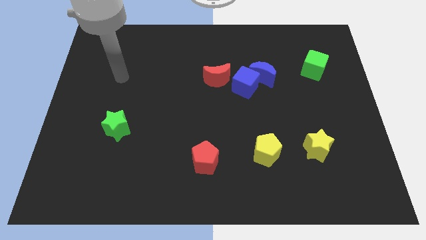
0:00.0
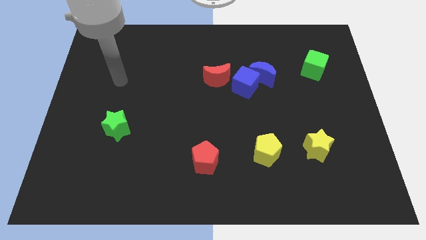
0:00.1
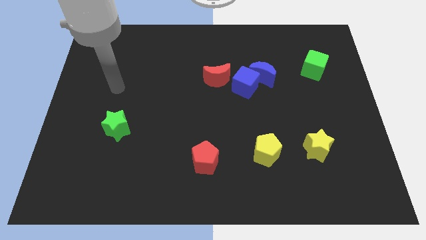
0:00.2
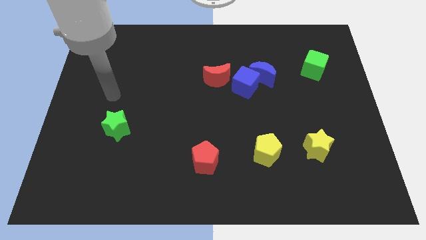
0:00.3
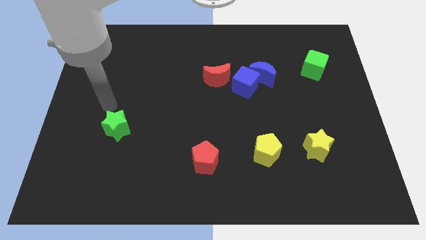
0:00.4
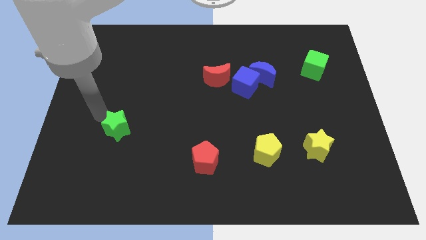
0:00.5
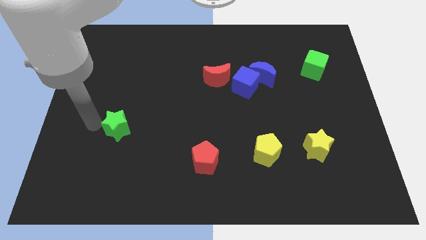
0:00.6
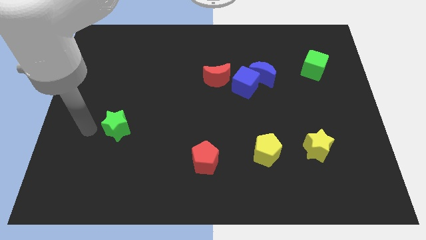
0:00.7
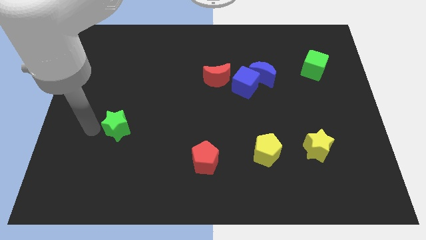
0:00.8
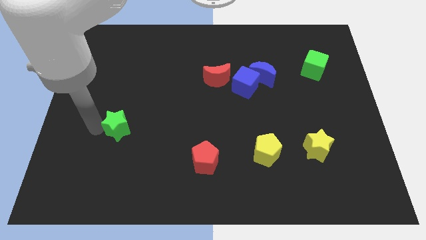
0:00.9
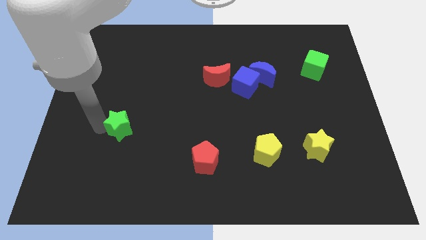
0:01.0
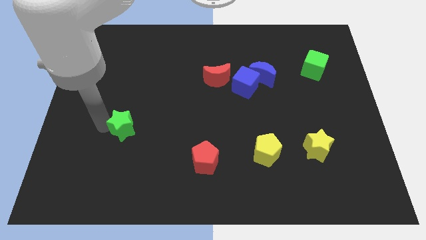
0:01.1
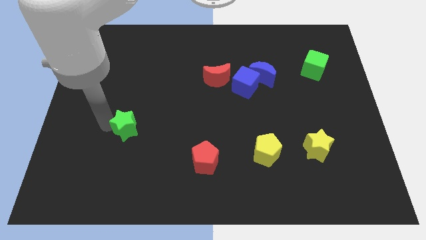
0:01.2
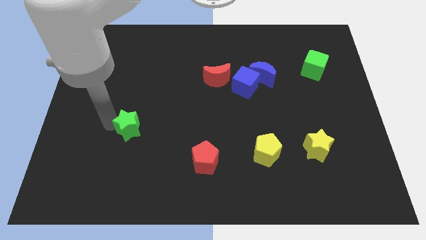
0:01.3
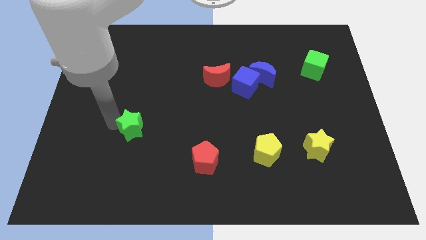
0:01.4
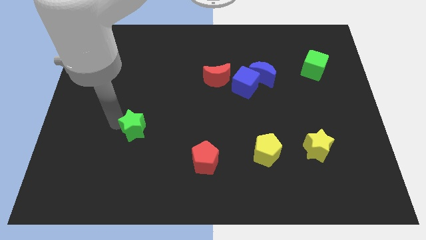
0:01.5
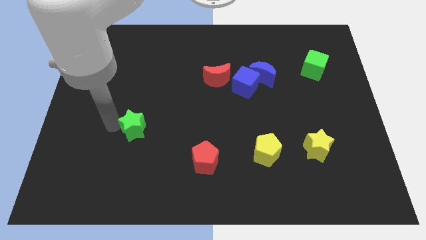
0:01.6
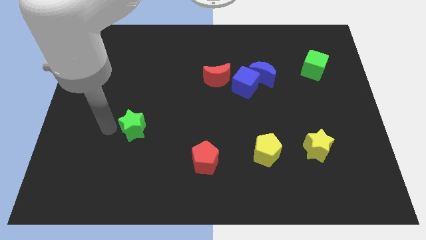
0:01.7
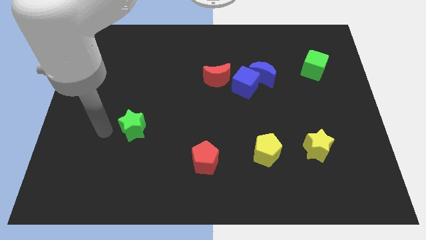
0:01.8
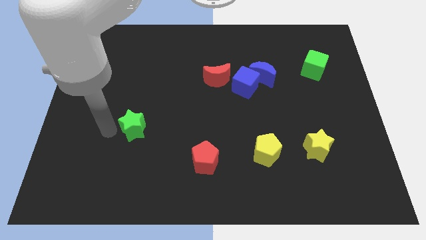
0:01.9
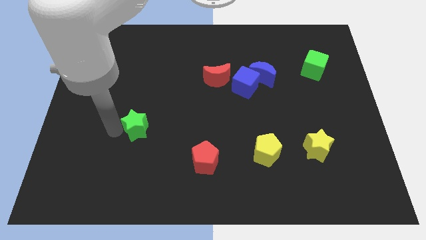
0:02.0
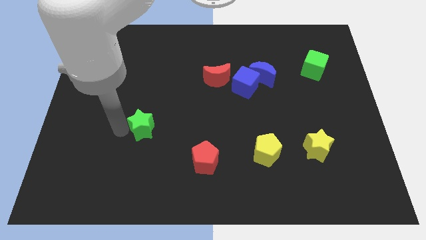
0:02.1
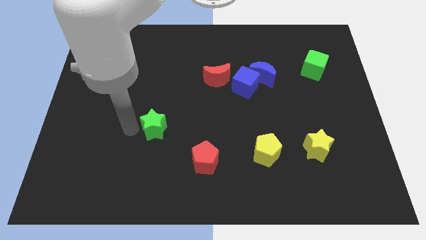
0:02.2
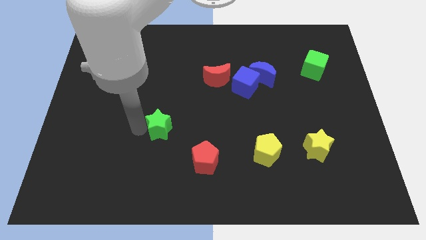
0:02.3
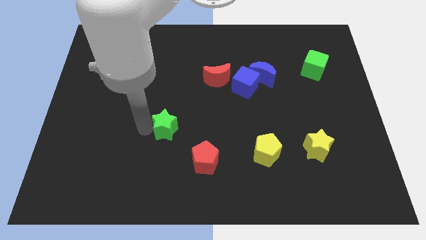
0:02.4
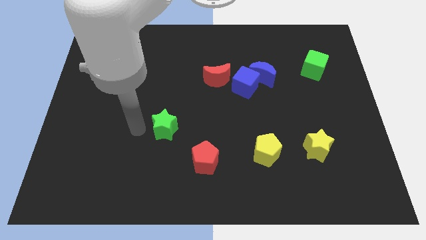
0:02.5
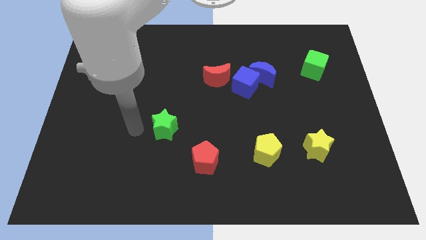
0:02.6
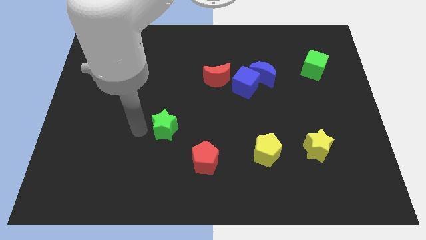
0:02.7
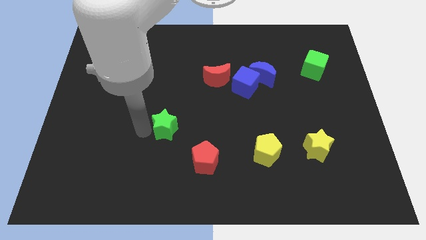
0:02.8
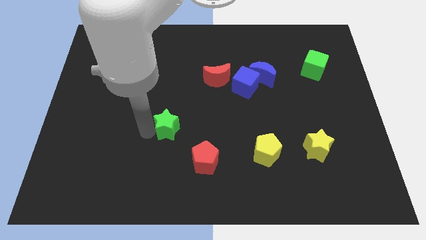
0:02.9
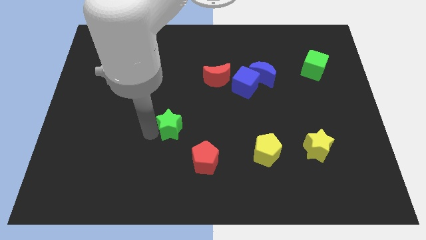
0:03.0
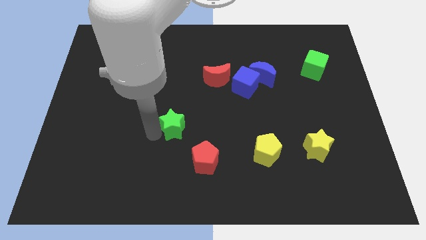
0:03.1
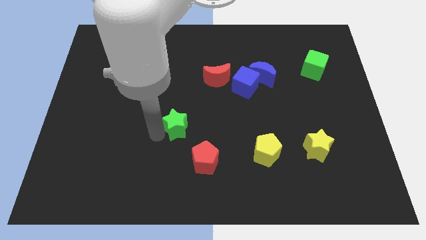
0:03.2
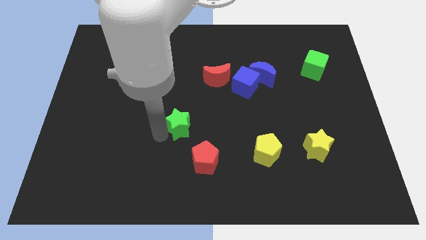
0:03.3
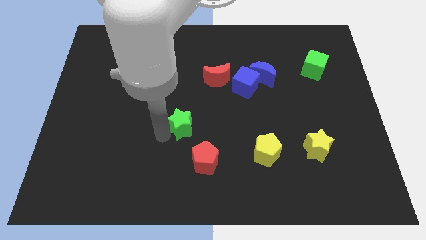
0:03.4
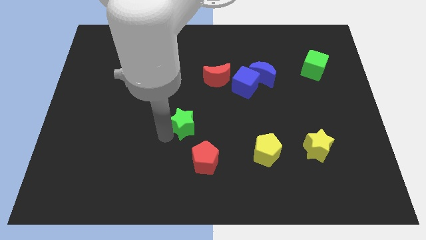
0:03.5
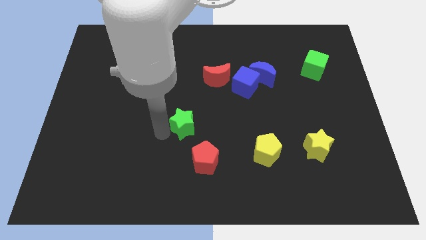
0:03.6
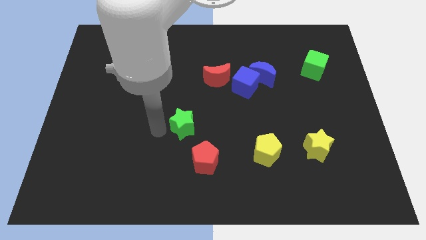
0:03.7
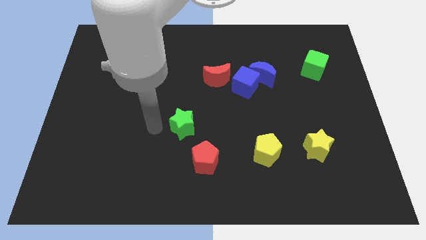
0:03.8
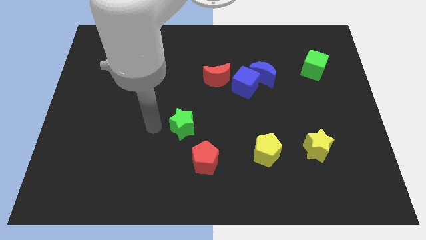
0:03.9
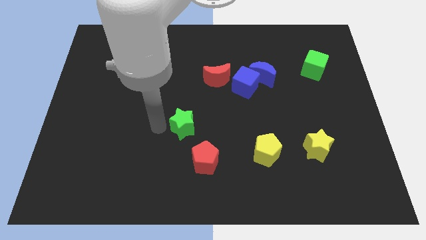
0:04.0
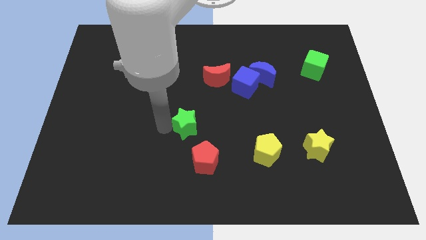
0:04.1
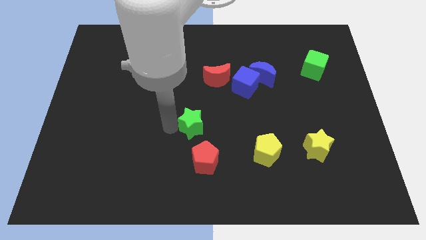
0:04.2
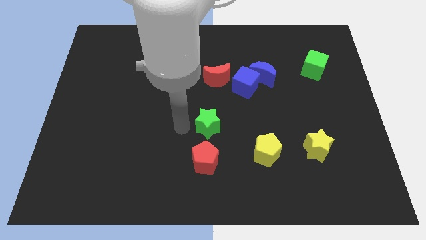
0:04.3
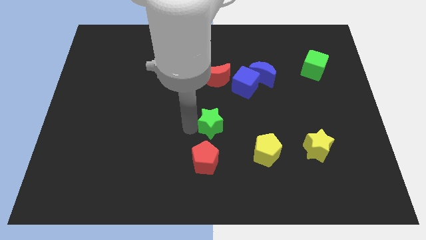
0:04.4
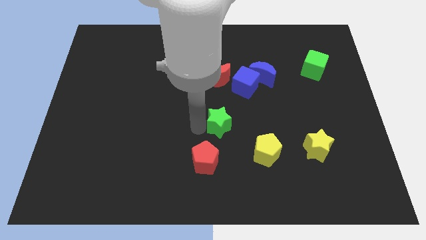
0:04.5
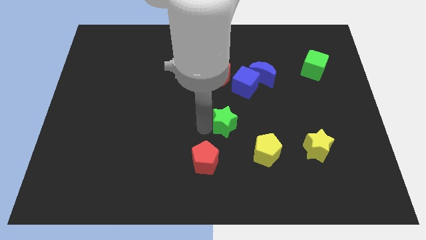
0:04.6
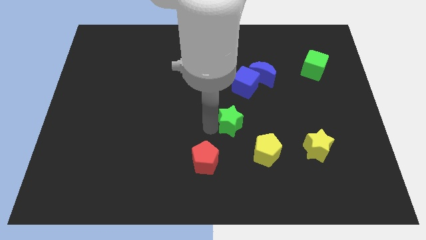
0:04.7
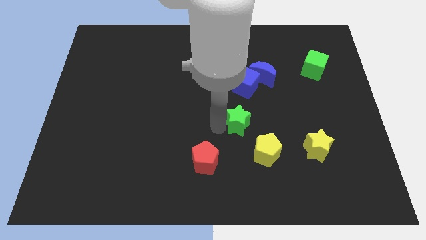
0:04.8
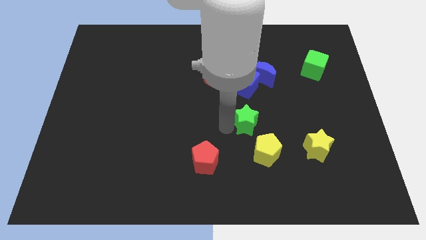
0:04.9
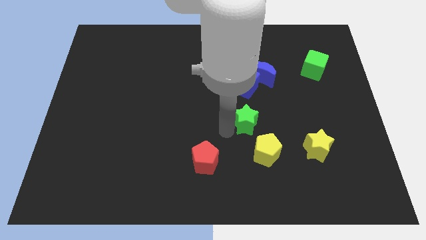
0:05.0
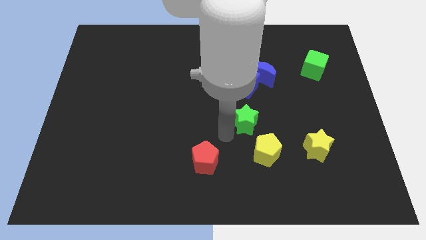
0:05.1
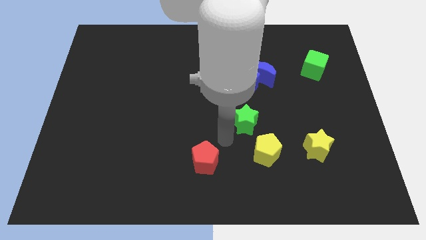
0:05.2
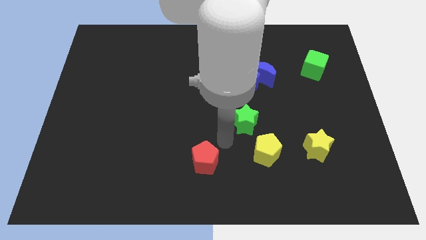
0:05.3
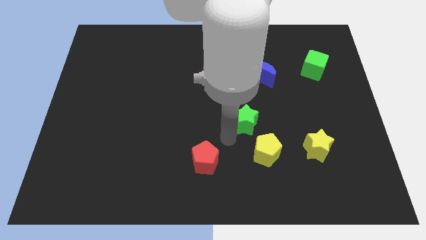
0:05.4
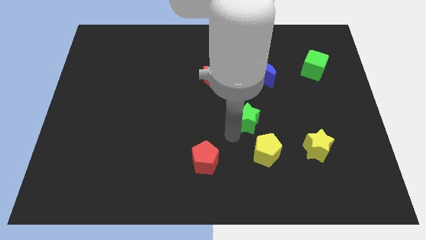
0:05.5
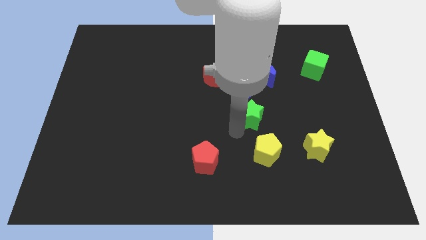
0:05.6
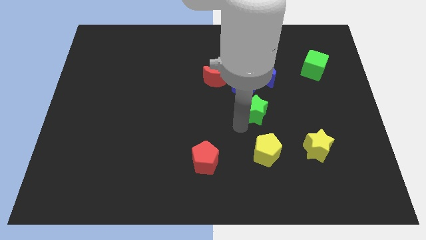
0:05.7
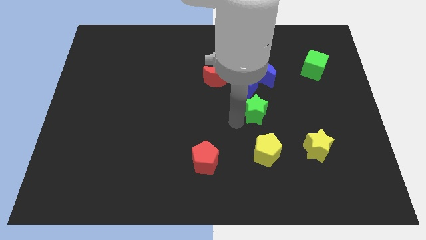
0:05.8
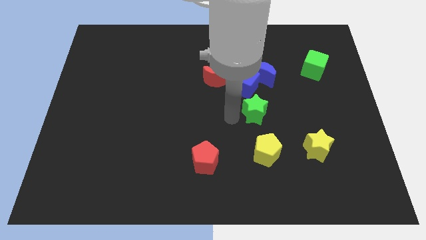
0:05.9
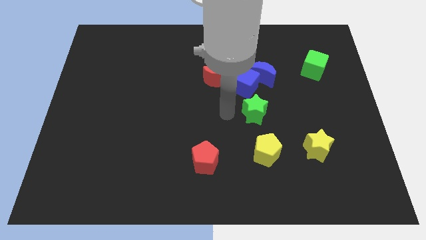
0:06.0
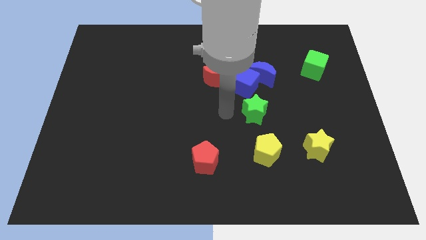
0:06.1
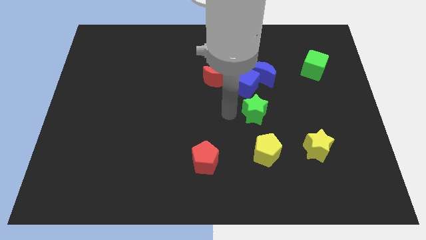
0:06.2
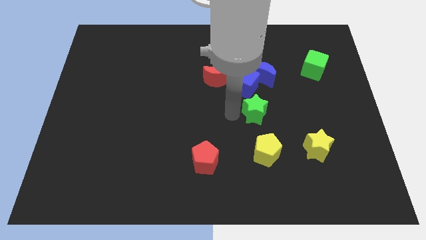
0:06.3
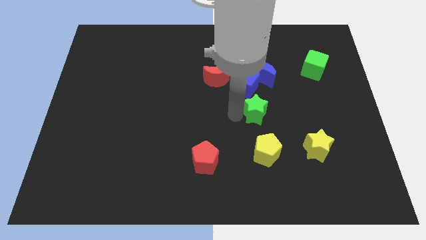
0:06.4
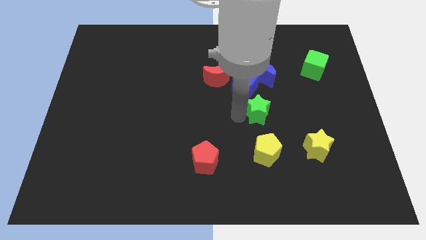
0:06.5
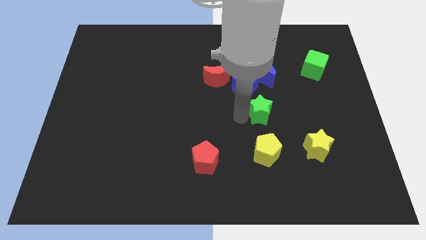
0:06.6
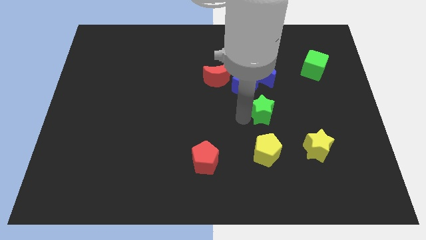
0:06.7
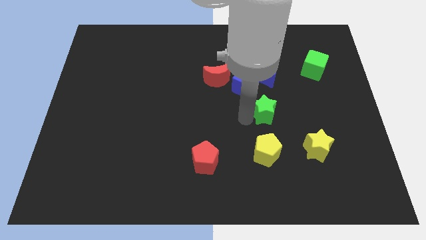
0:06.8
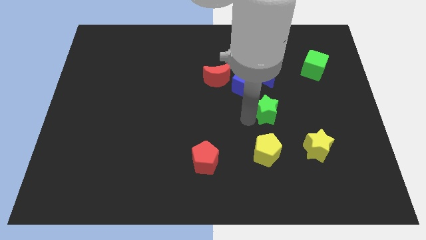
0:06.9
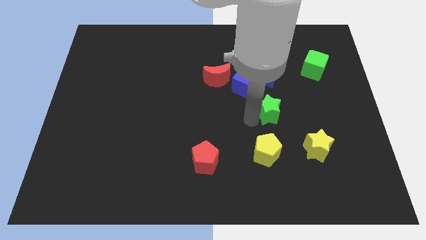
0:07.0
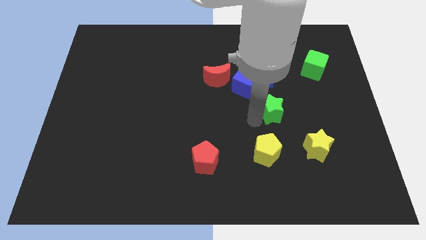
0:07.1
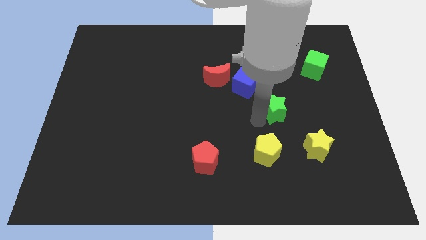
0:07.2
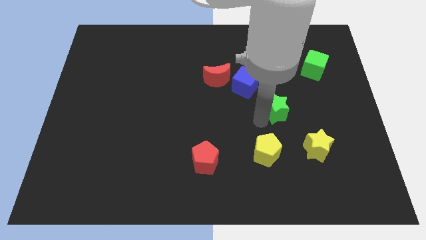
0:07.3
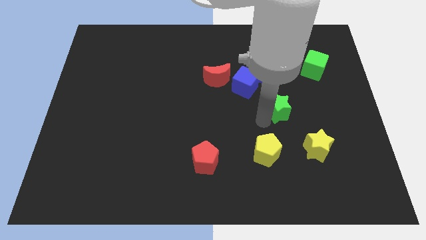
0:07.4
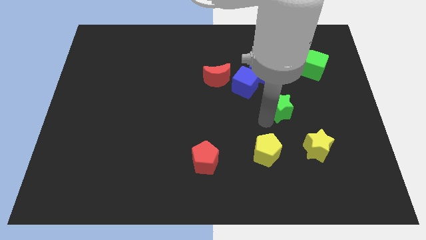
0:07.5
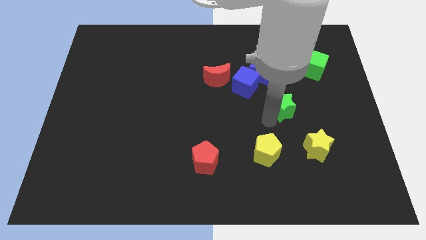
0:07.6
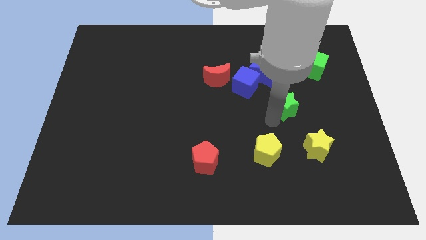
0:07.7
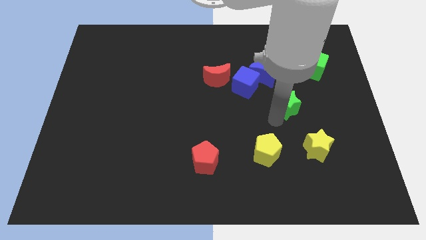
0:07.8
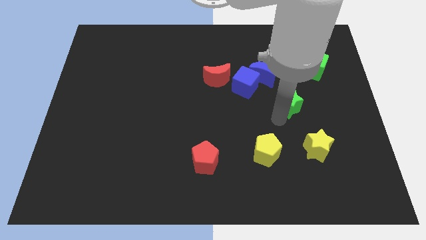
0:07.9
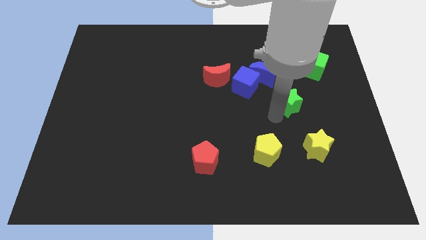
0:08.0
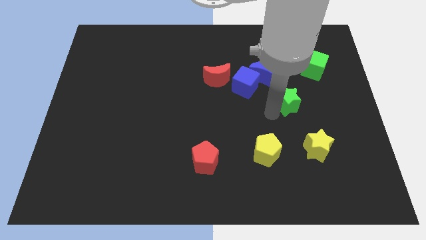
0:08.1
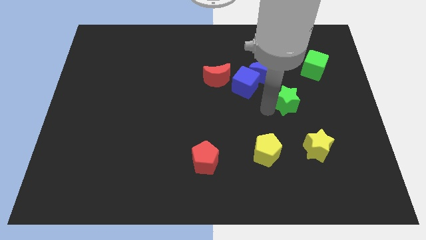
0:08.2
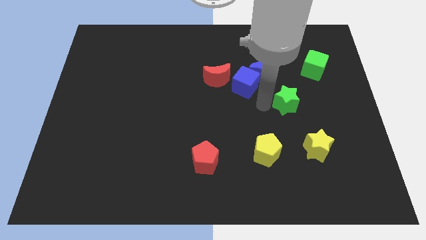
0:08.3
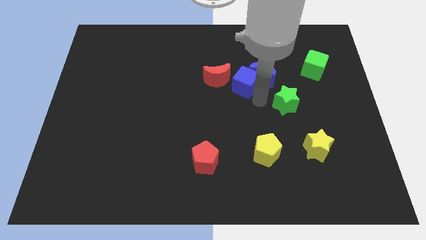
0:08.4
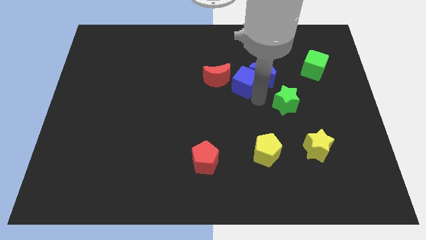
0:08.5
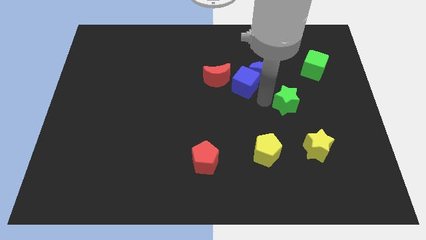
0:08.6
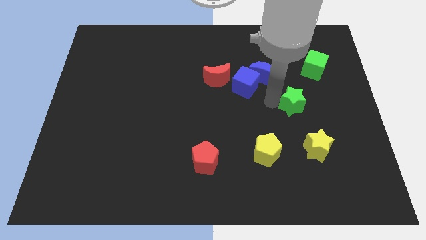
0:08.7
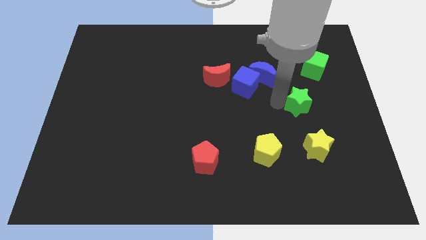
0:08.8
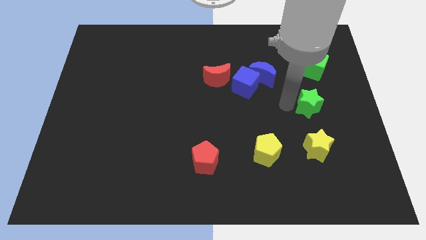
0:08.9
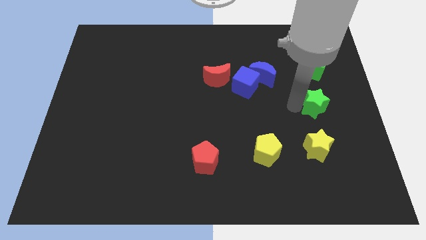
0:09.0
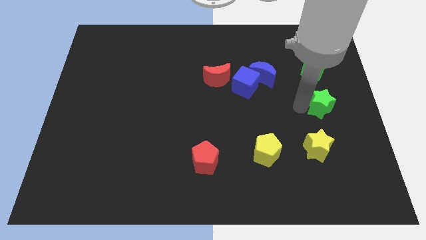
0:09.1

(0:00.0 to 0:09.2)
push the green star to the right side
